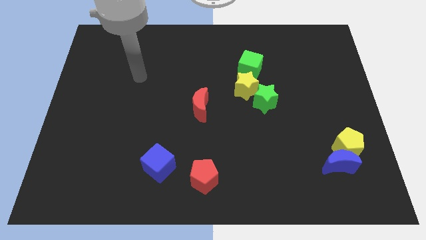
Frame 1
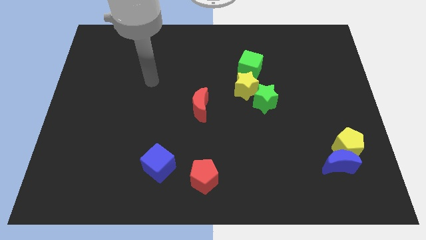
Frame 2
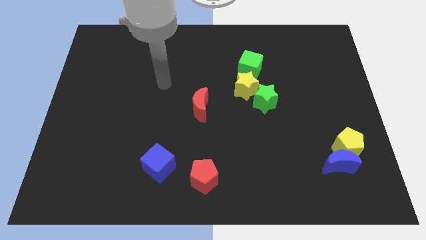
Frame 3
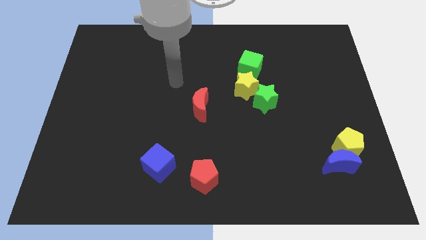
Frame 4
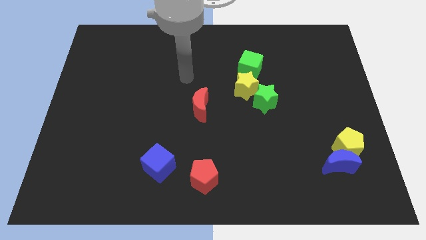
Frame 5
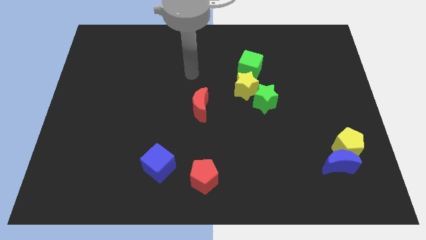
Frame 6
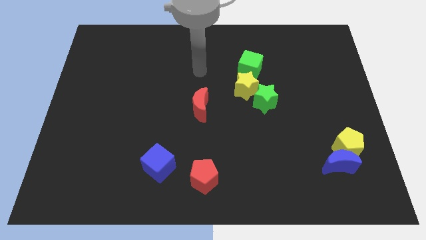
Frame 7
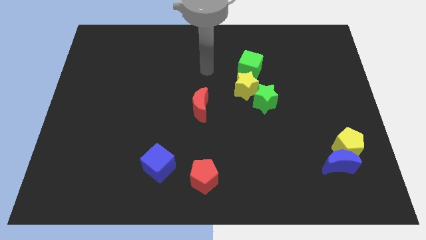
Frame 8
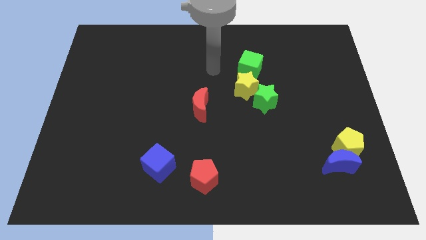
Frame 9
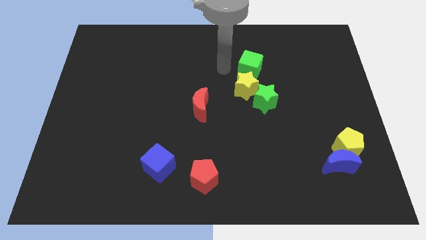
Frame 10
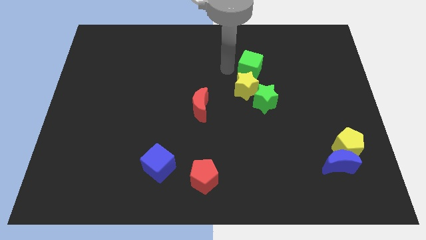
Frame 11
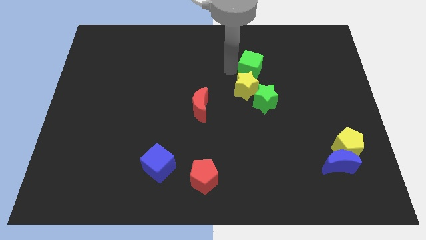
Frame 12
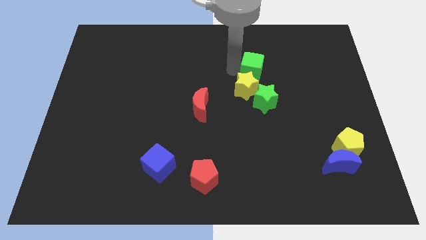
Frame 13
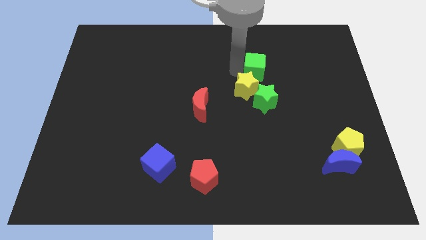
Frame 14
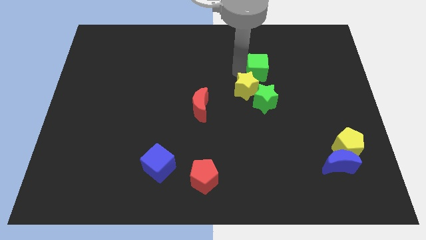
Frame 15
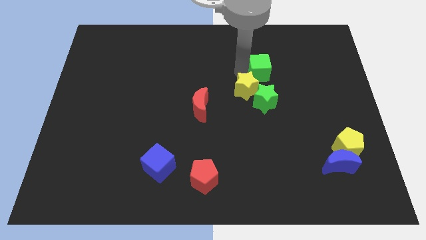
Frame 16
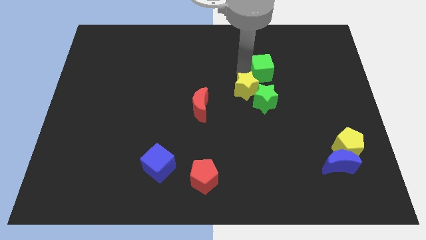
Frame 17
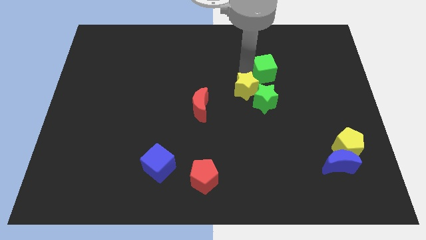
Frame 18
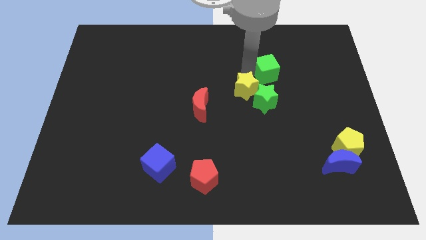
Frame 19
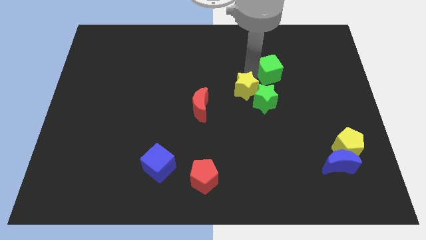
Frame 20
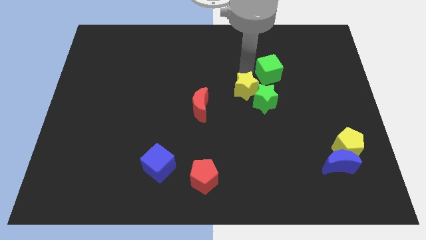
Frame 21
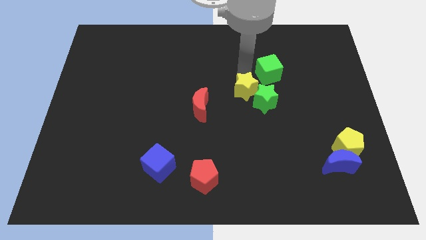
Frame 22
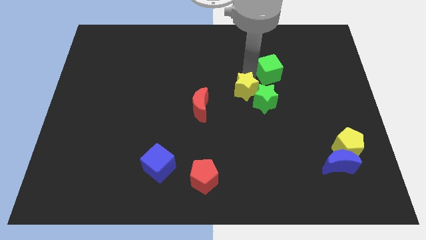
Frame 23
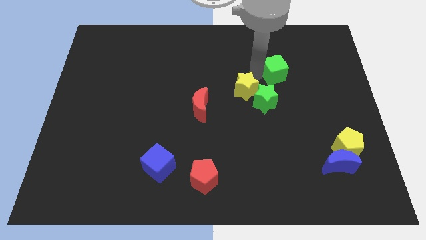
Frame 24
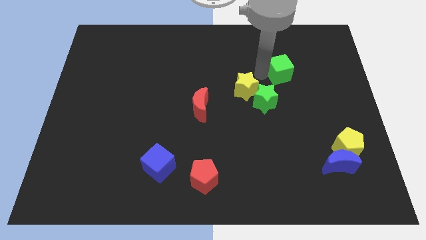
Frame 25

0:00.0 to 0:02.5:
push the green cube a little bit right

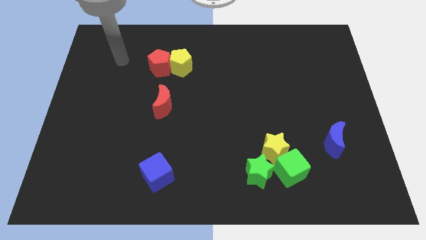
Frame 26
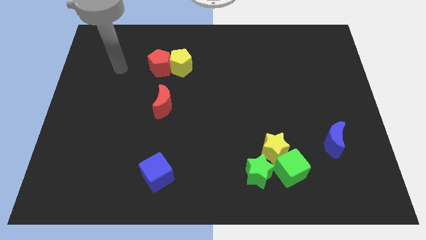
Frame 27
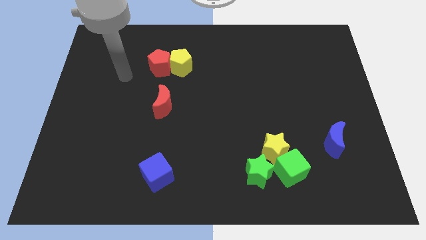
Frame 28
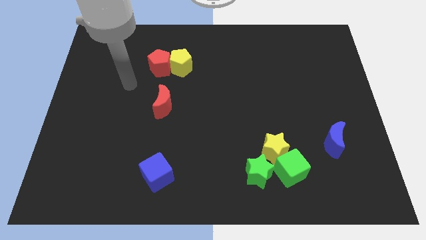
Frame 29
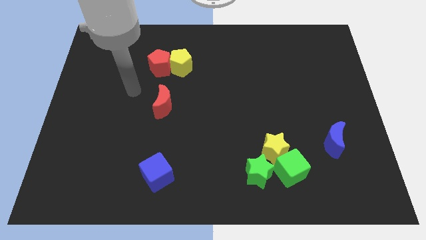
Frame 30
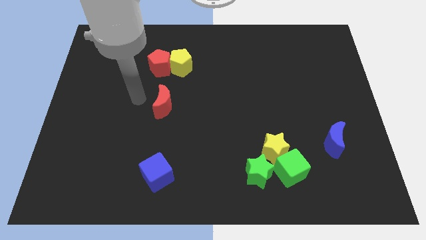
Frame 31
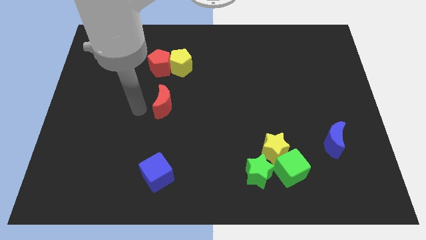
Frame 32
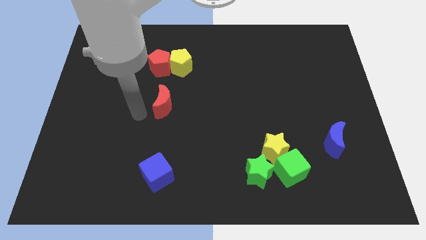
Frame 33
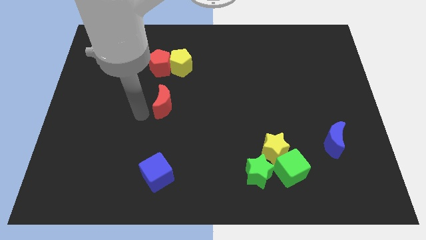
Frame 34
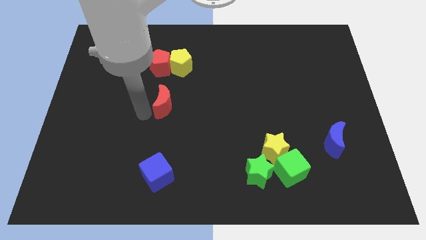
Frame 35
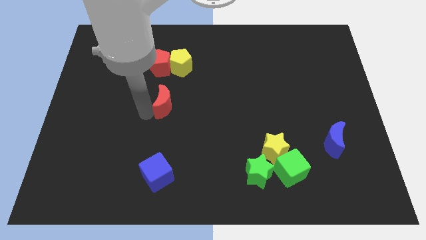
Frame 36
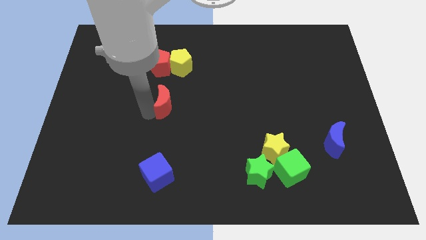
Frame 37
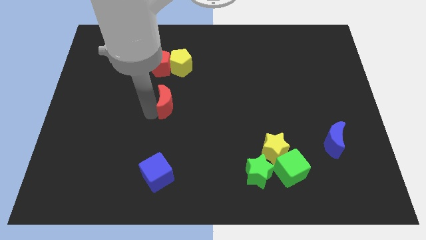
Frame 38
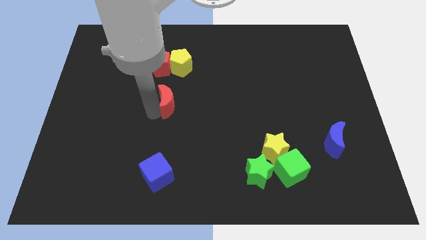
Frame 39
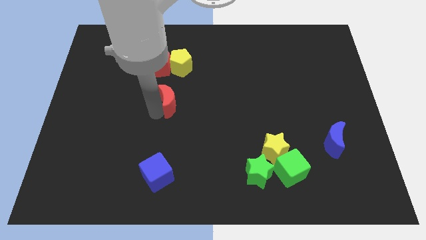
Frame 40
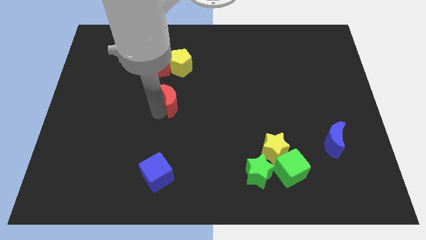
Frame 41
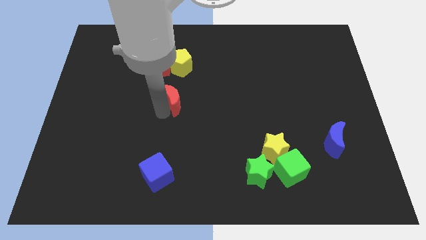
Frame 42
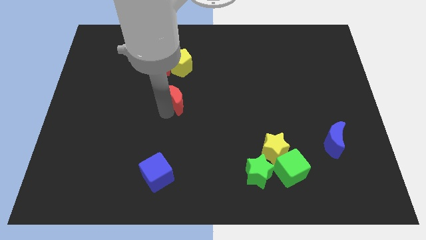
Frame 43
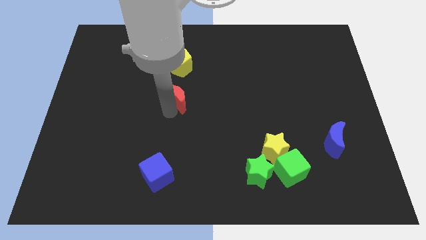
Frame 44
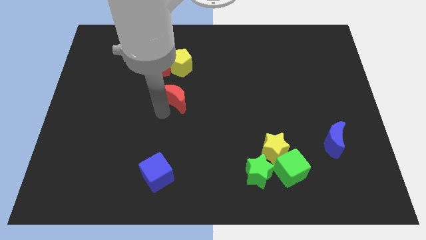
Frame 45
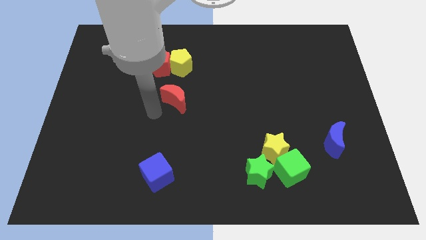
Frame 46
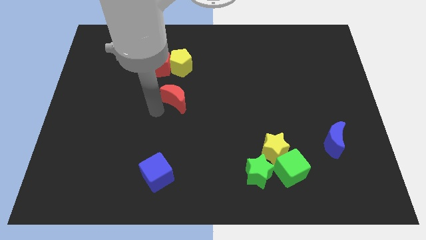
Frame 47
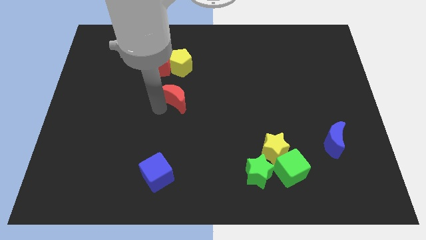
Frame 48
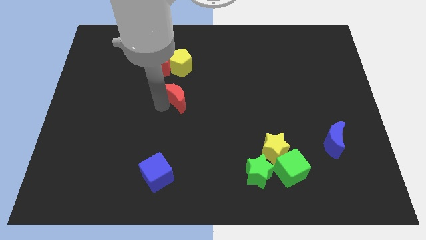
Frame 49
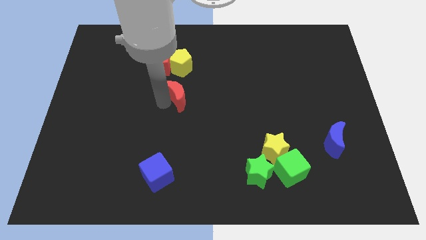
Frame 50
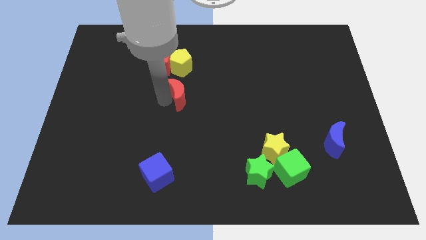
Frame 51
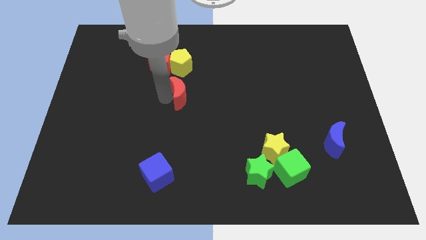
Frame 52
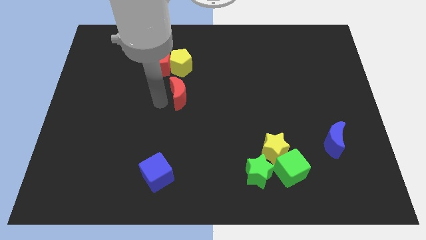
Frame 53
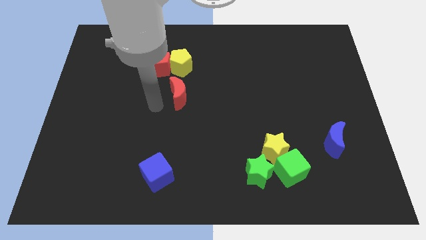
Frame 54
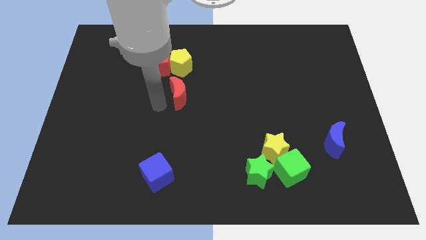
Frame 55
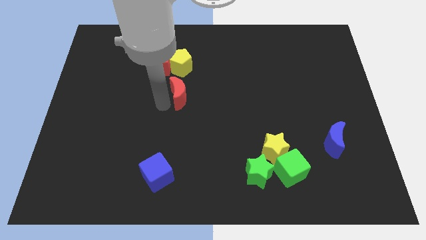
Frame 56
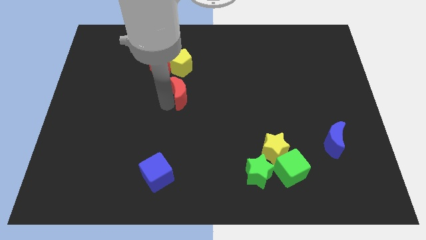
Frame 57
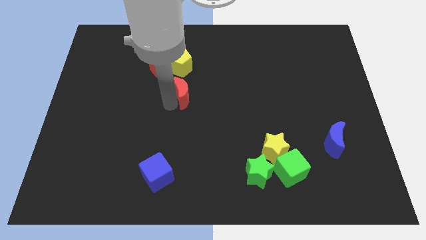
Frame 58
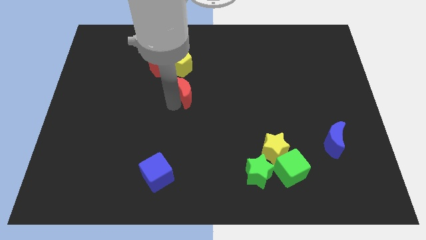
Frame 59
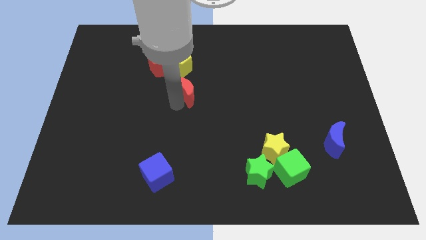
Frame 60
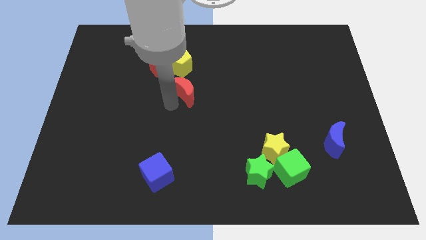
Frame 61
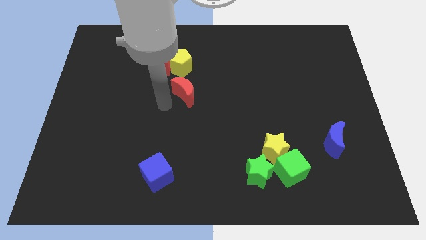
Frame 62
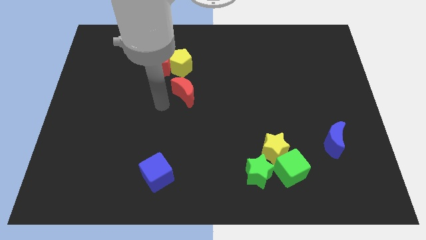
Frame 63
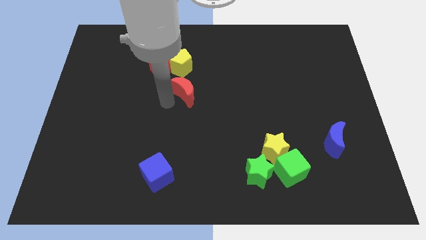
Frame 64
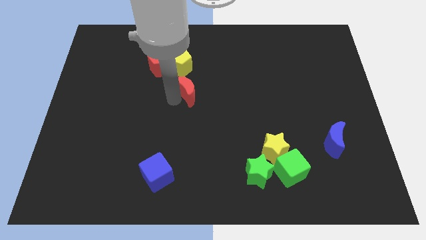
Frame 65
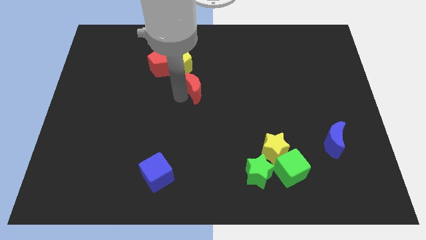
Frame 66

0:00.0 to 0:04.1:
move the red moon a little bit diagonally upwards and to the right

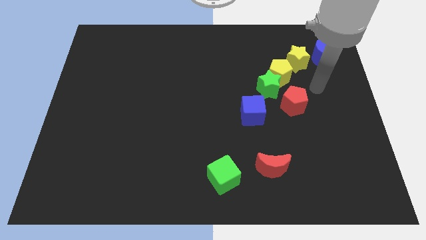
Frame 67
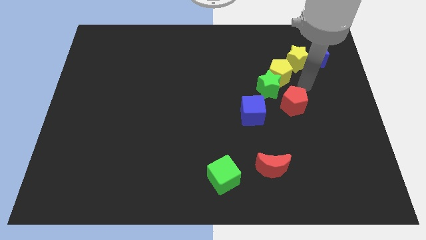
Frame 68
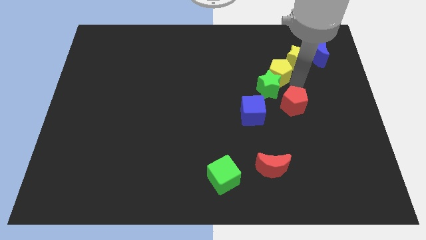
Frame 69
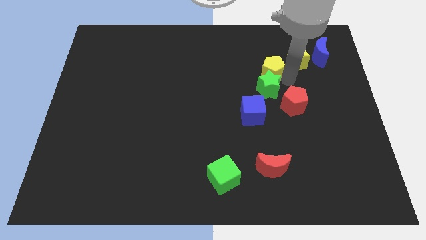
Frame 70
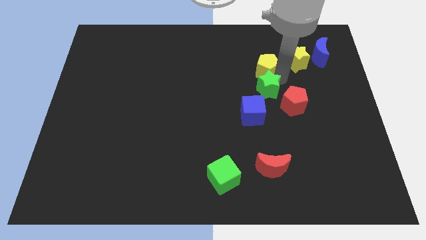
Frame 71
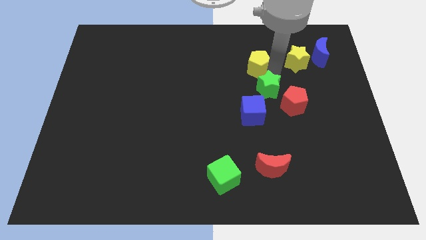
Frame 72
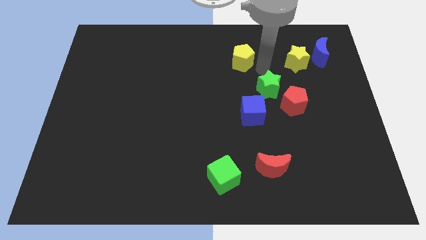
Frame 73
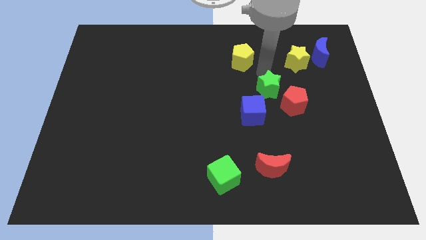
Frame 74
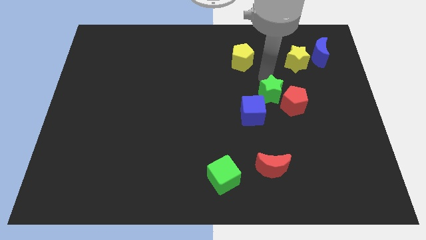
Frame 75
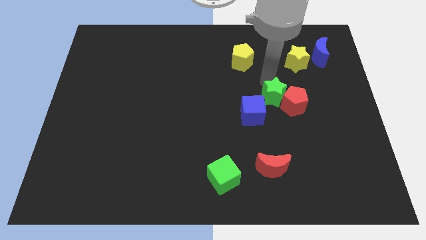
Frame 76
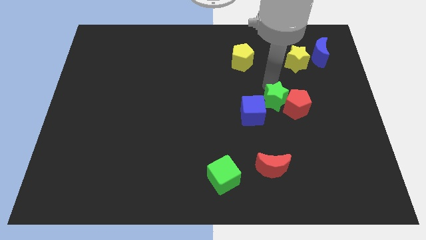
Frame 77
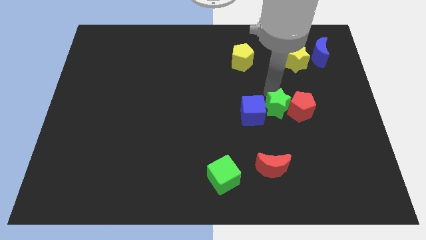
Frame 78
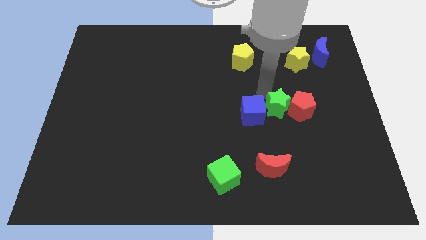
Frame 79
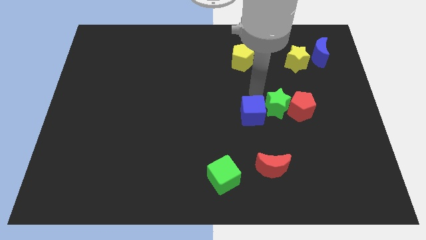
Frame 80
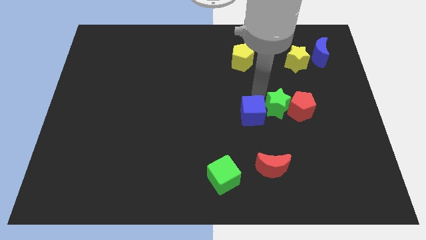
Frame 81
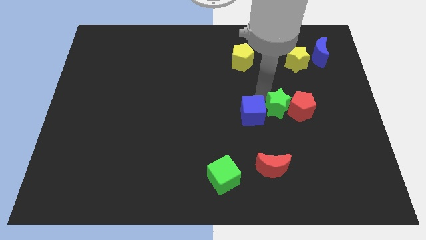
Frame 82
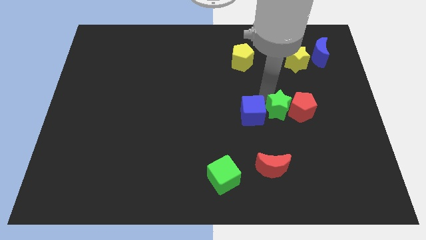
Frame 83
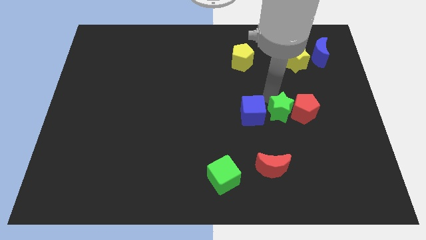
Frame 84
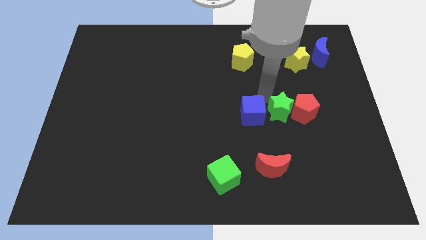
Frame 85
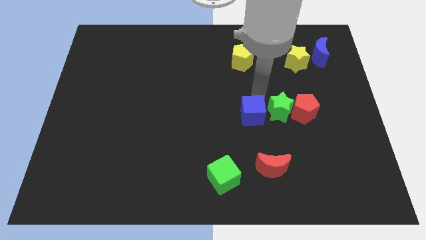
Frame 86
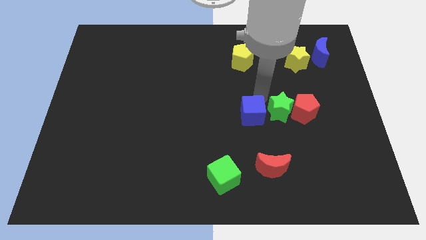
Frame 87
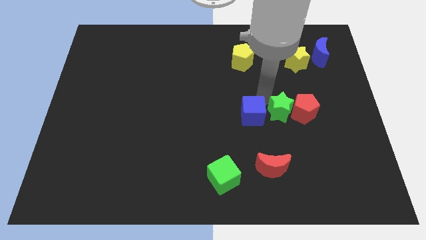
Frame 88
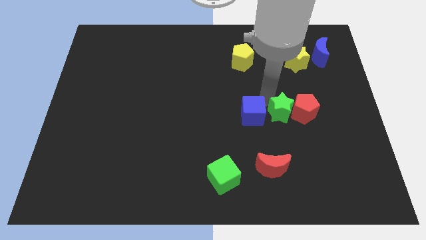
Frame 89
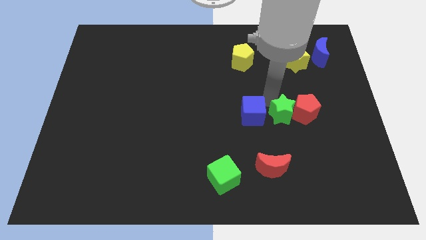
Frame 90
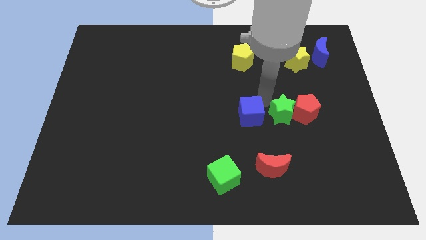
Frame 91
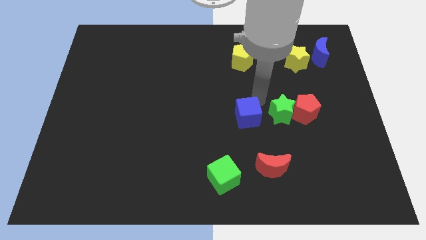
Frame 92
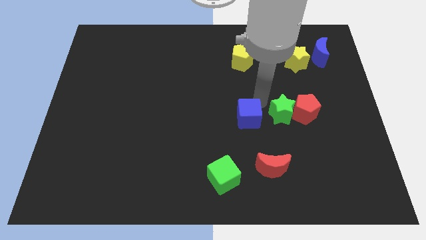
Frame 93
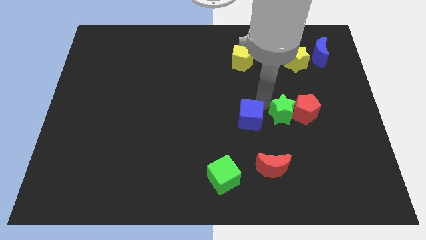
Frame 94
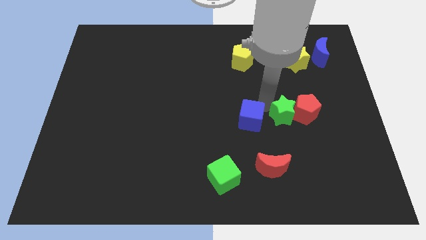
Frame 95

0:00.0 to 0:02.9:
slide the green star down and right diagonally somewhat
